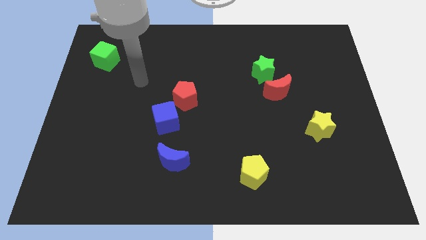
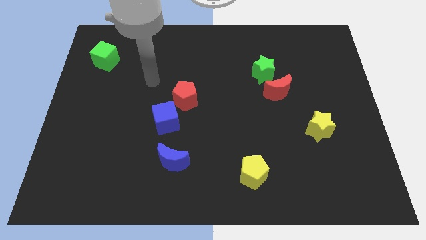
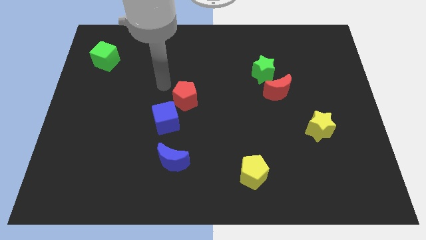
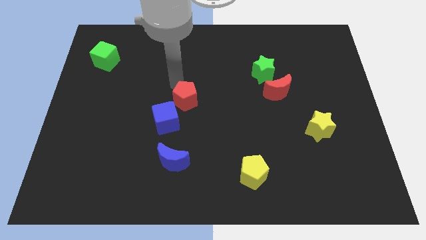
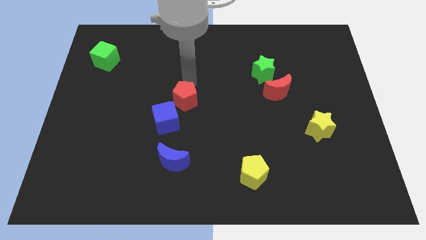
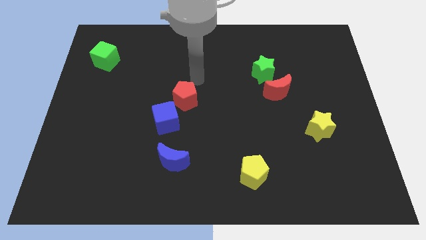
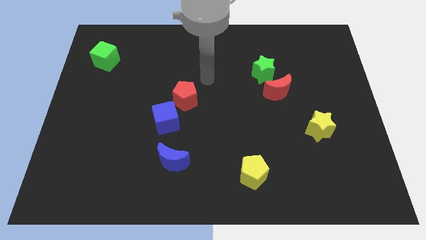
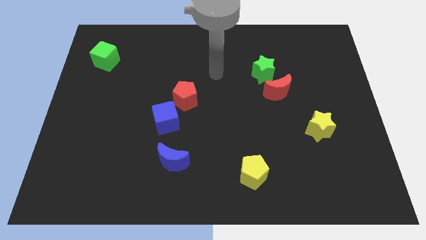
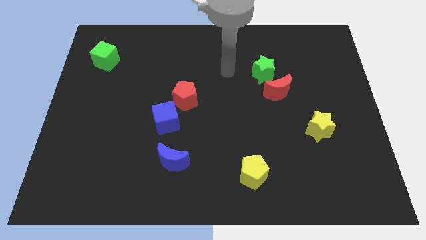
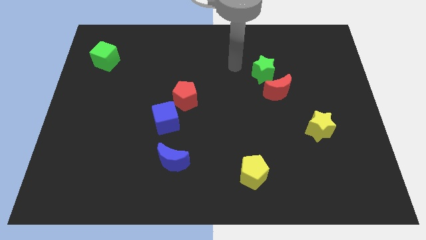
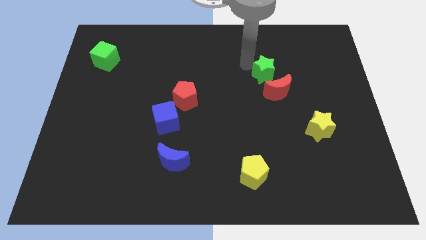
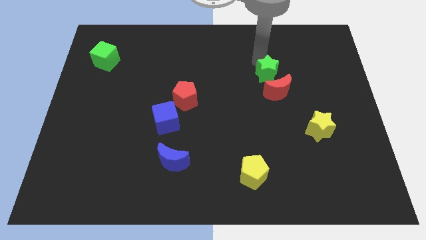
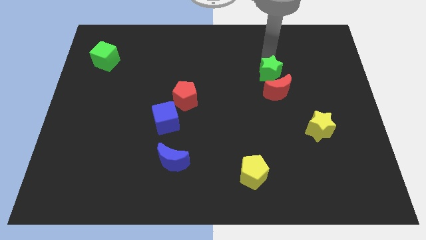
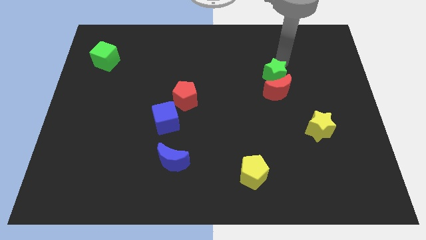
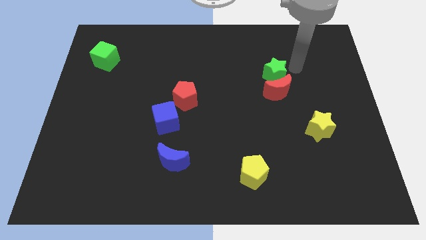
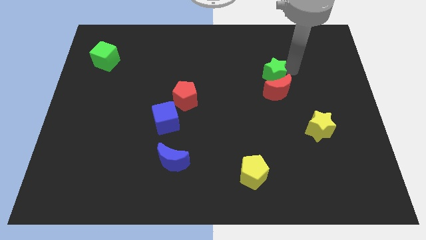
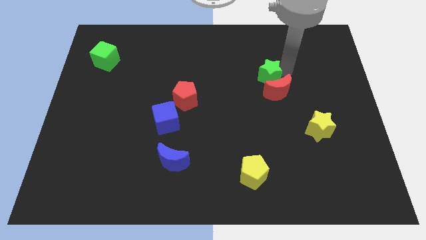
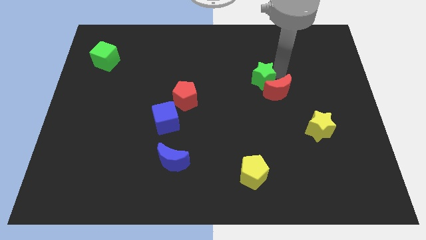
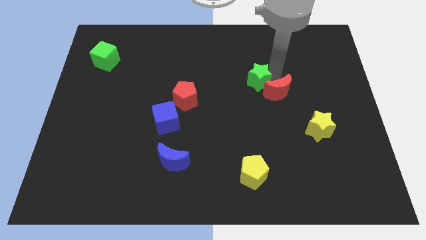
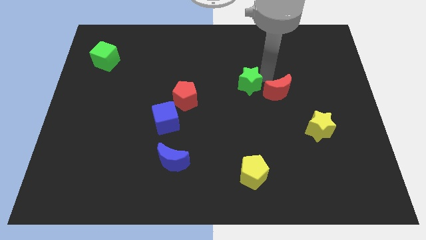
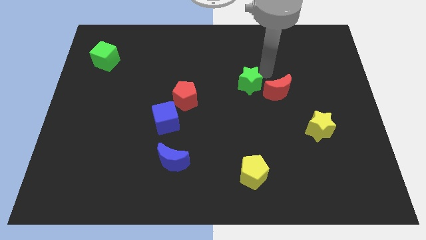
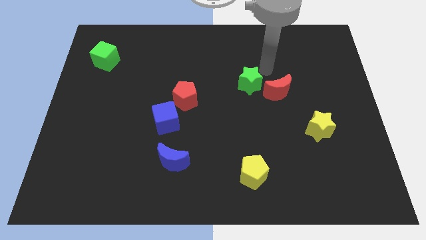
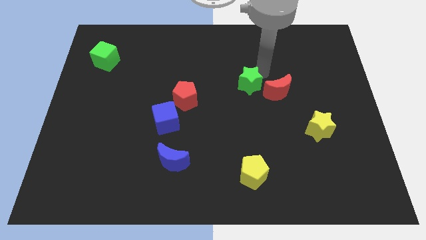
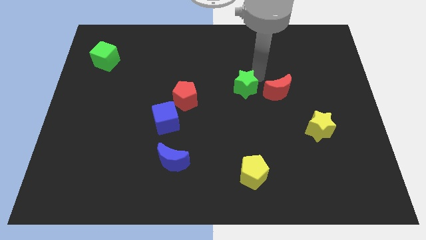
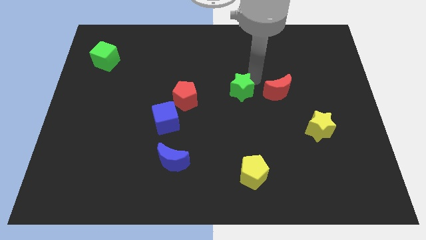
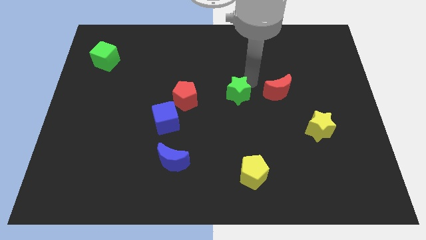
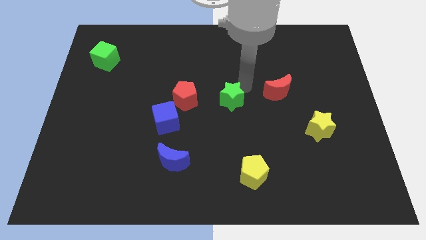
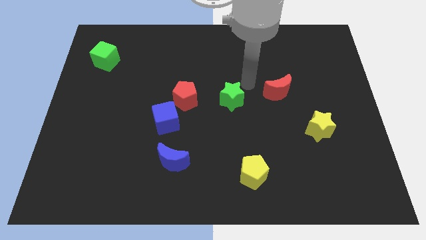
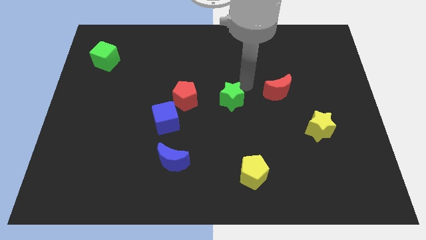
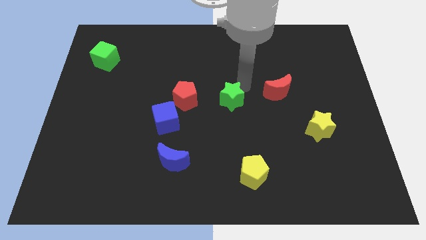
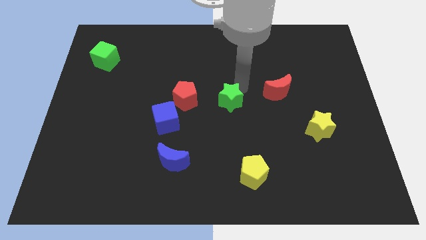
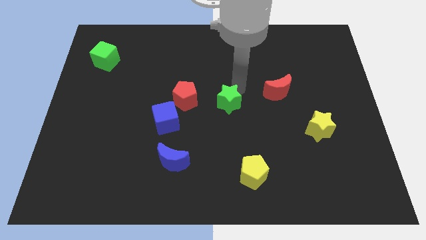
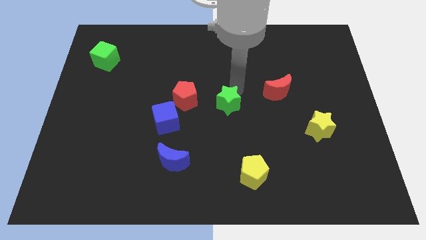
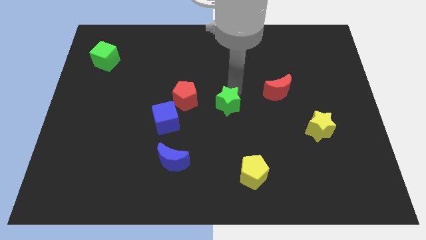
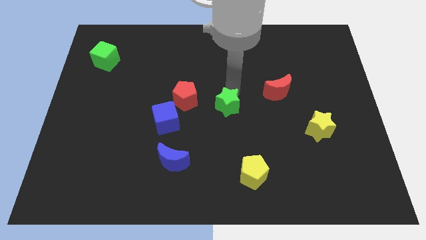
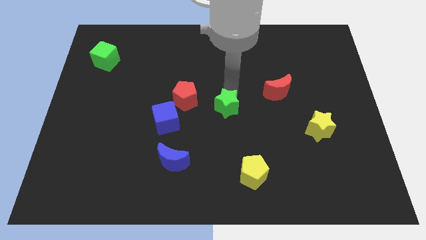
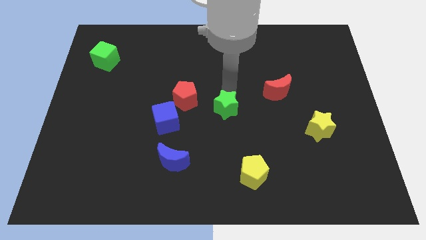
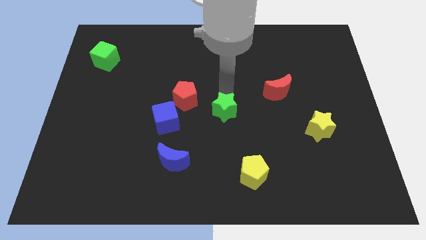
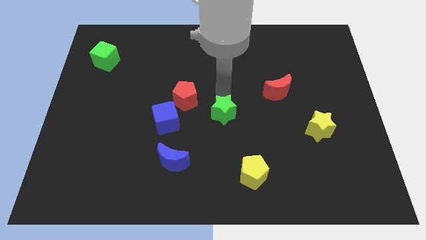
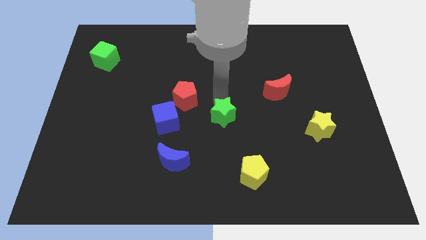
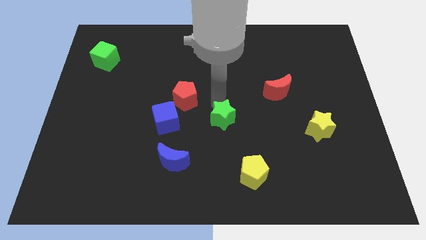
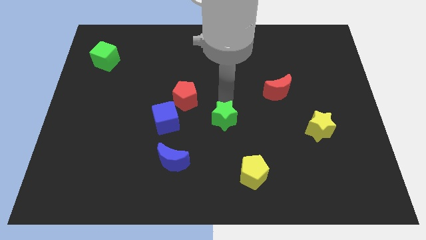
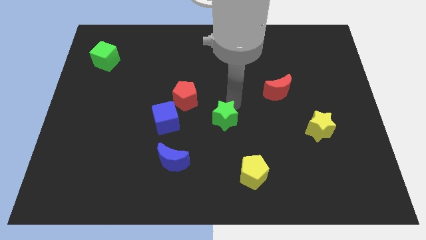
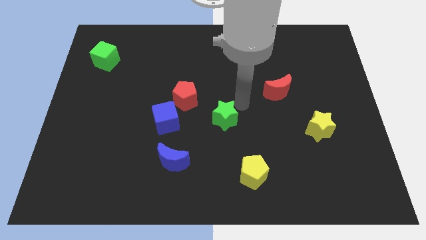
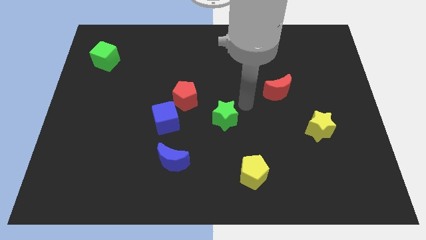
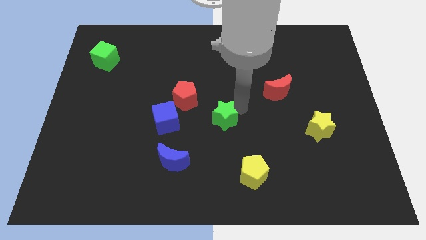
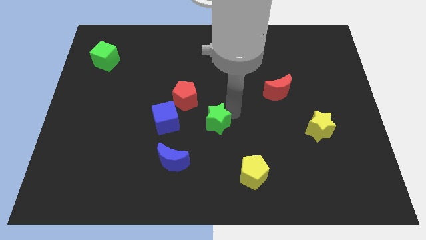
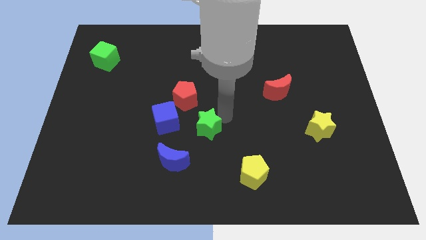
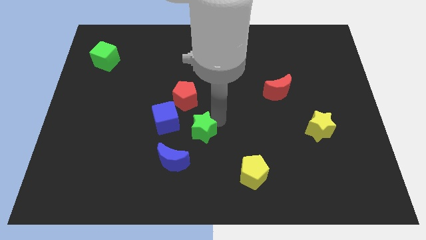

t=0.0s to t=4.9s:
put the green star diagonally down and to the right of the blue cube

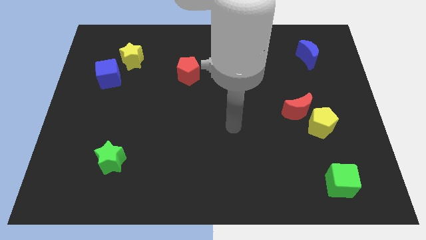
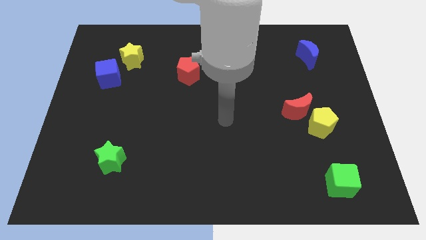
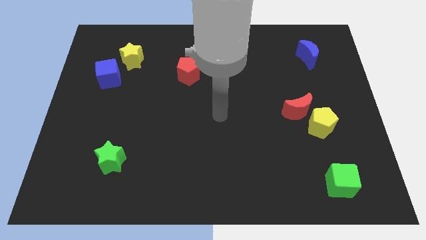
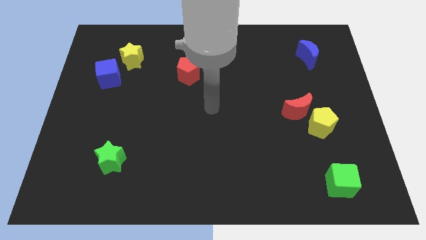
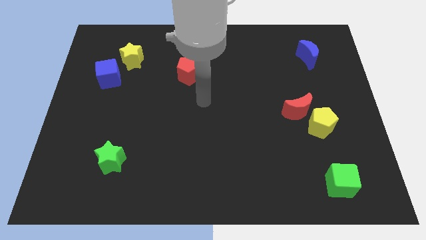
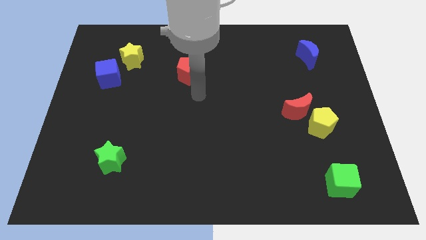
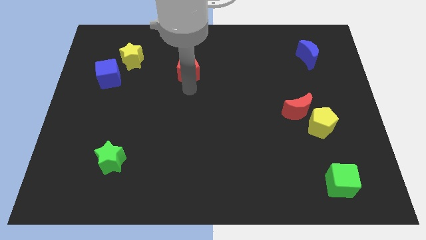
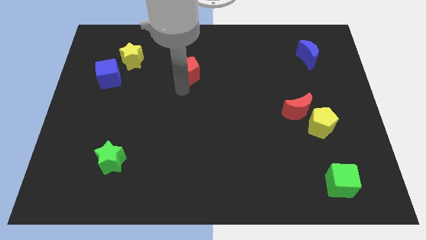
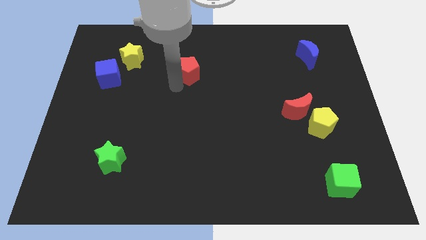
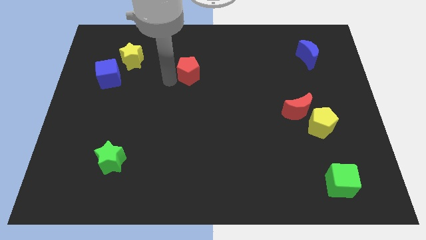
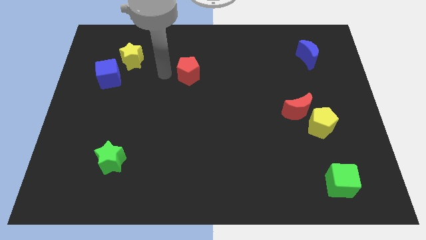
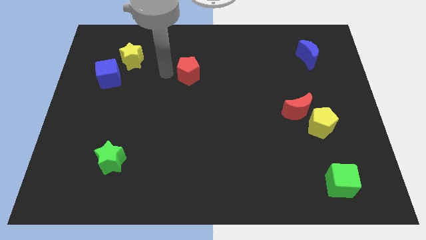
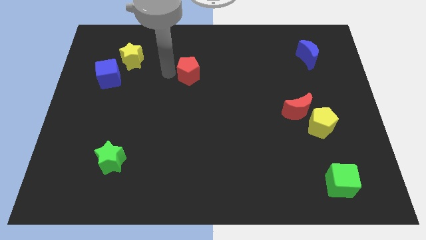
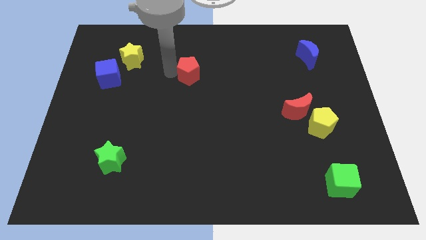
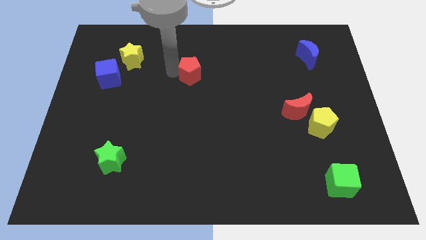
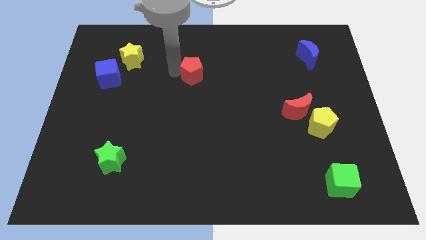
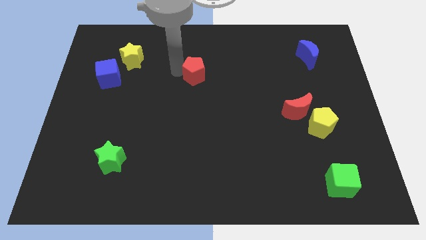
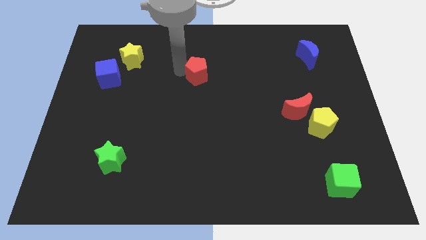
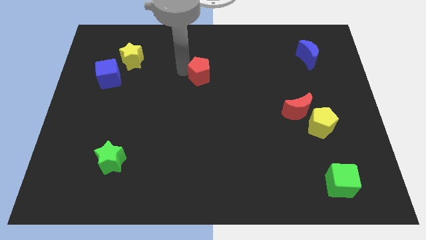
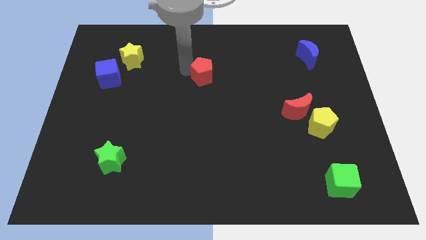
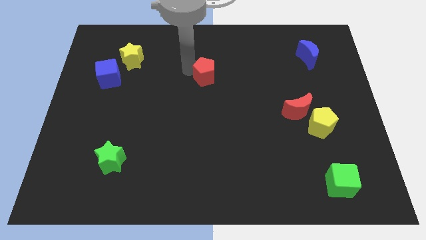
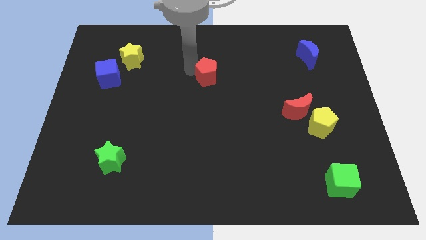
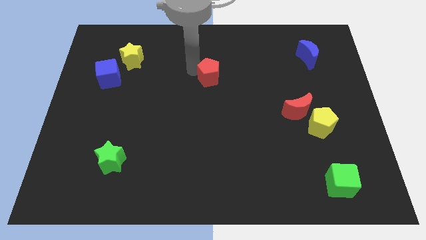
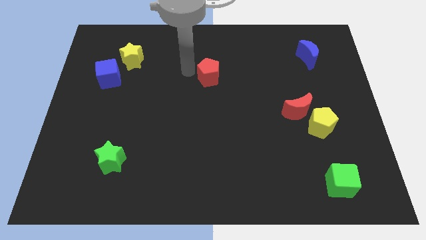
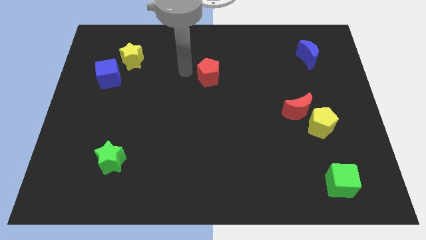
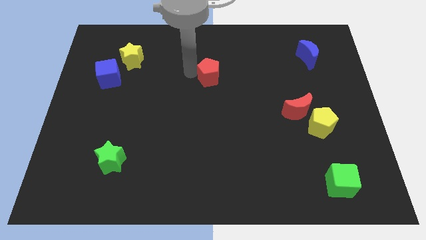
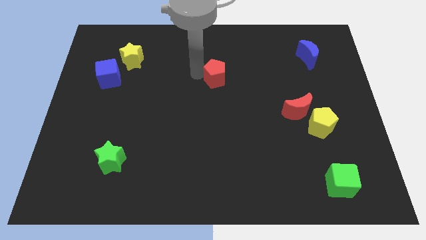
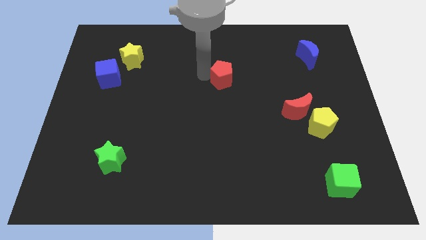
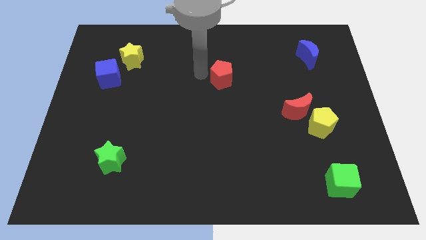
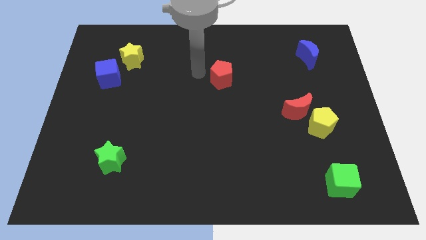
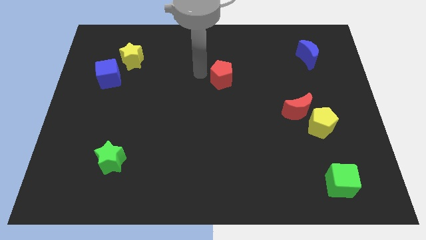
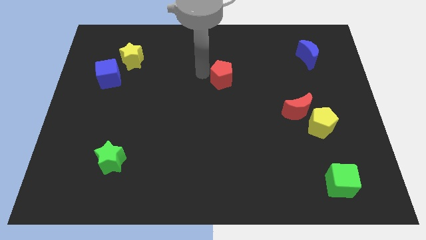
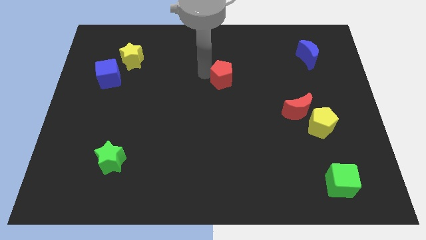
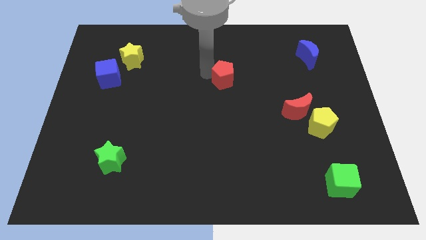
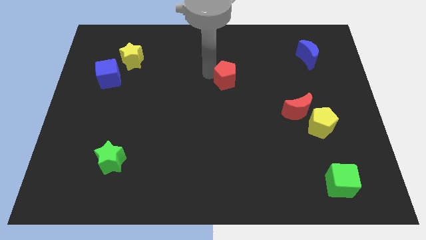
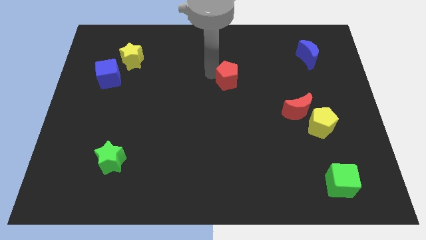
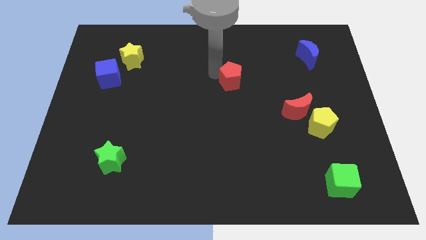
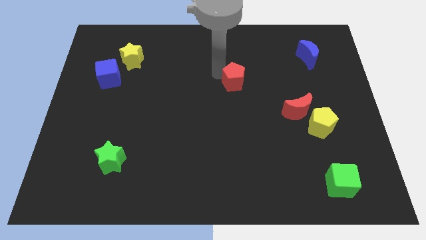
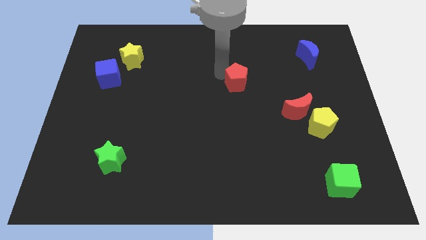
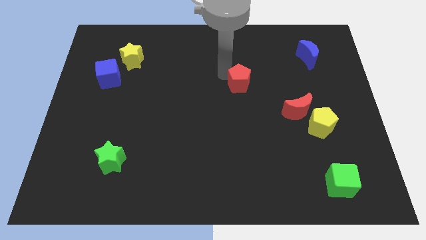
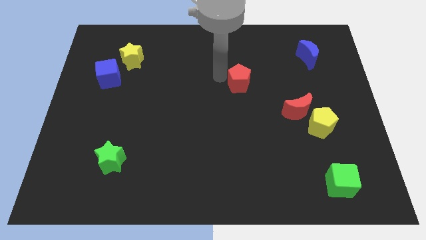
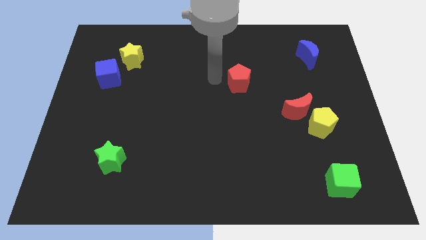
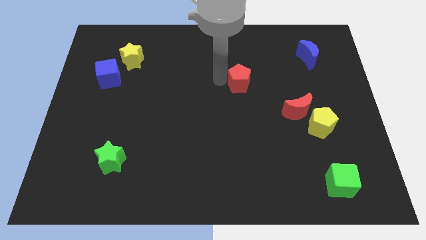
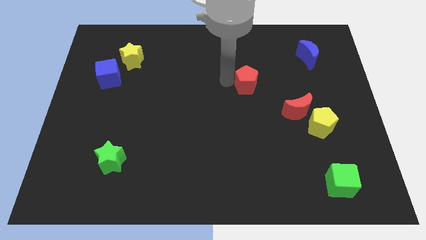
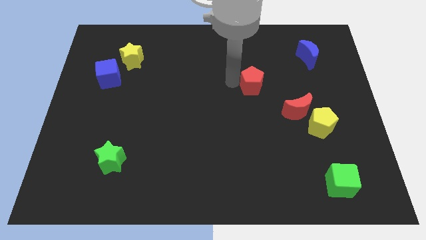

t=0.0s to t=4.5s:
move the red pentagon to the top left side of the red moon
